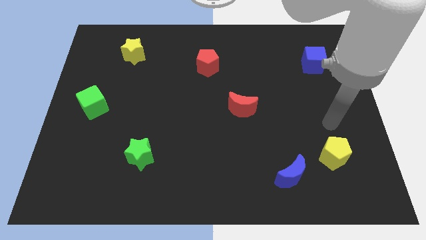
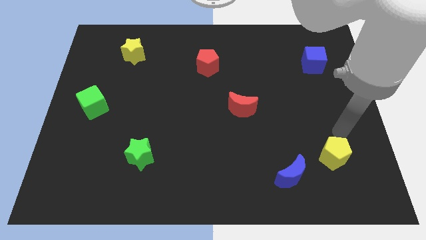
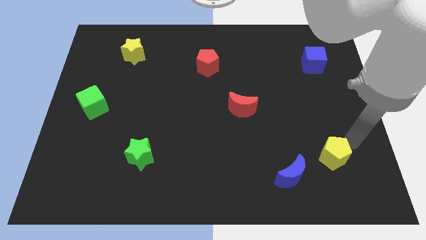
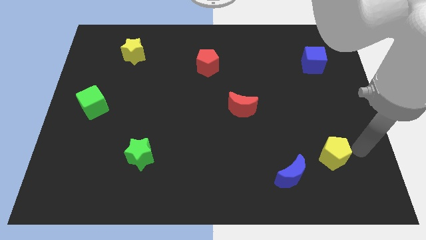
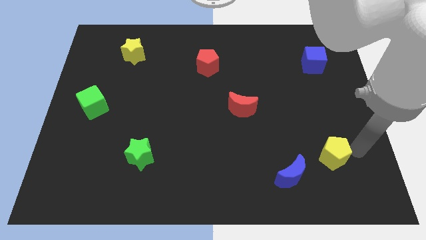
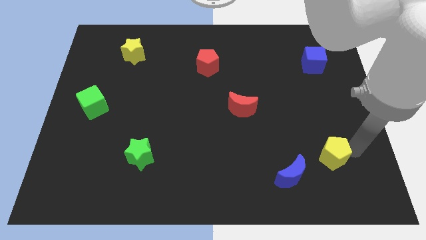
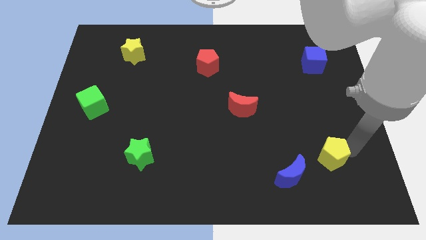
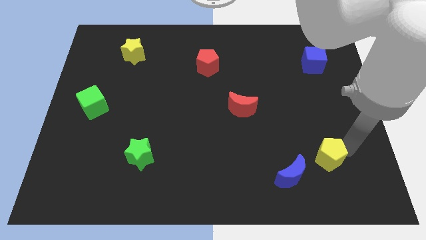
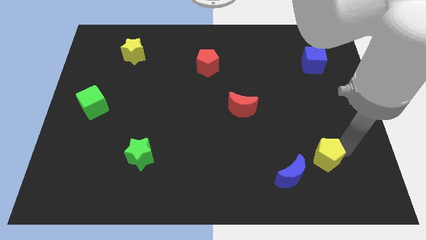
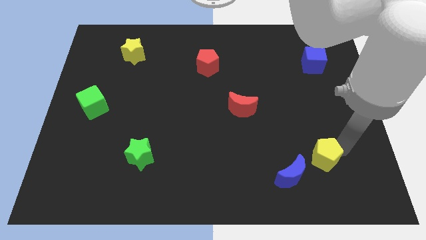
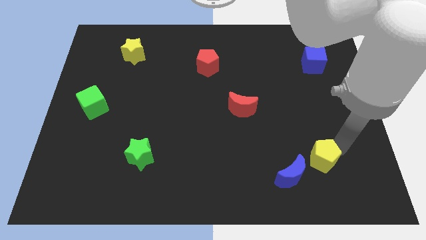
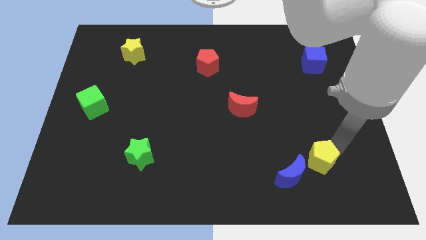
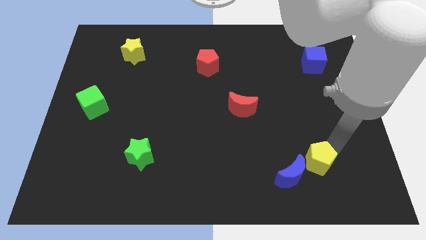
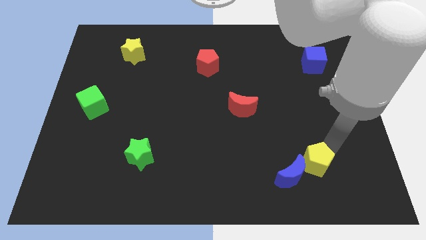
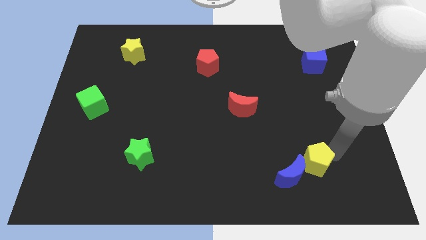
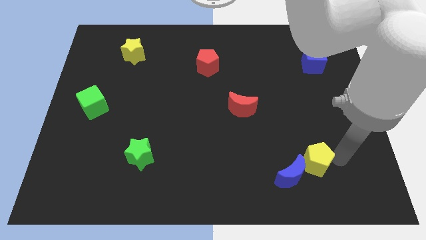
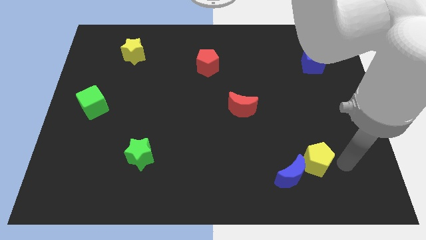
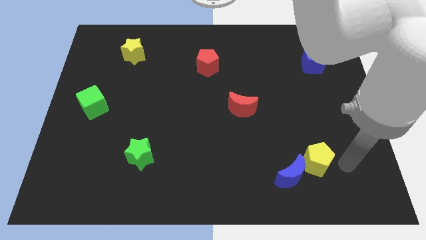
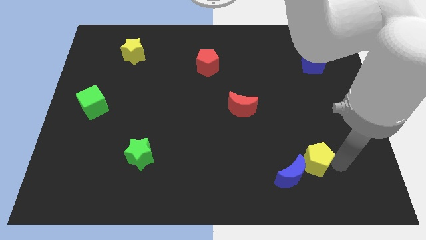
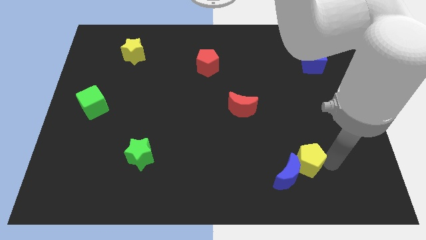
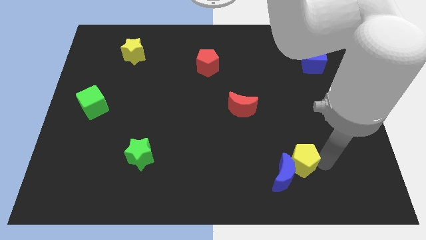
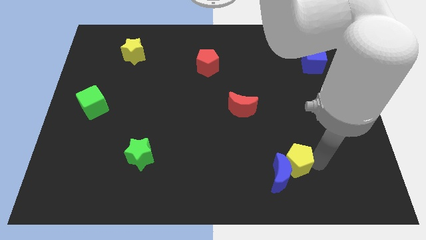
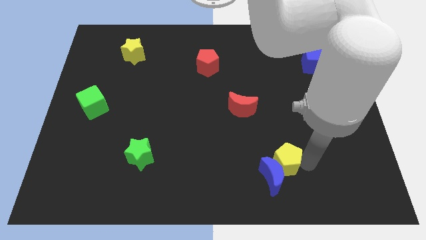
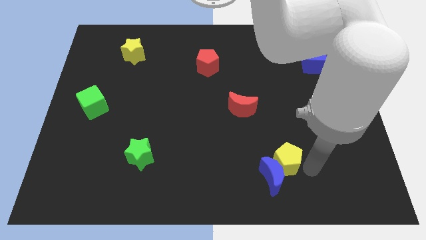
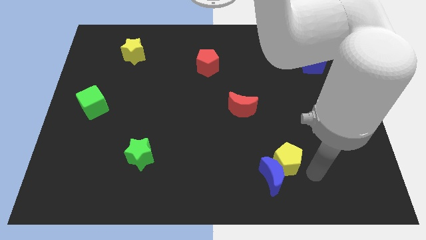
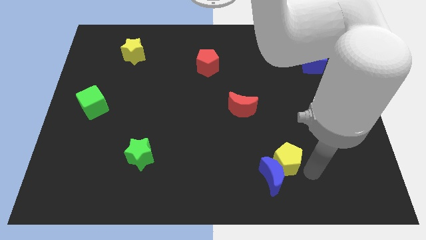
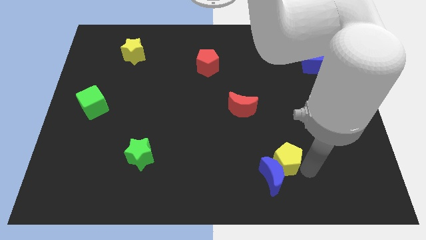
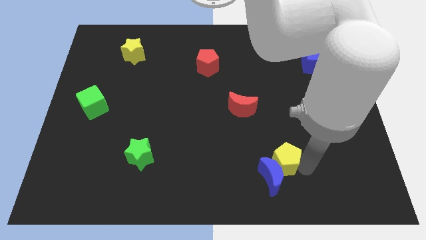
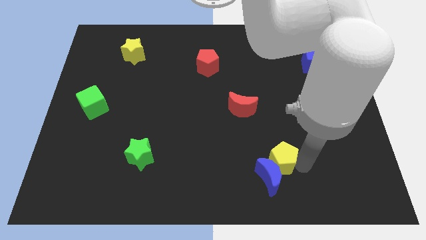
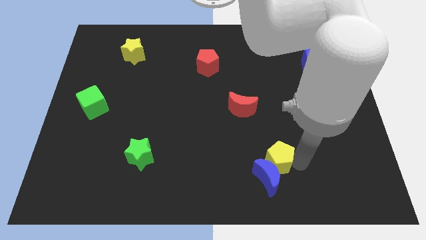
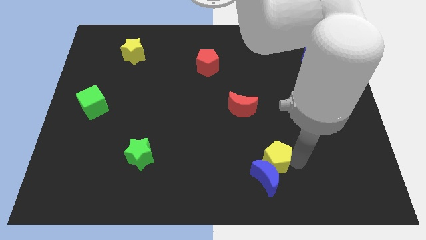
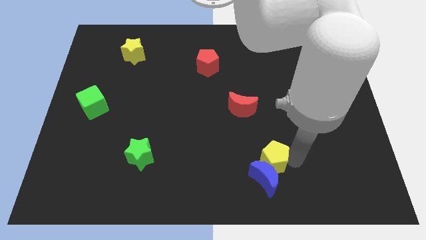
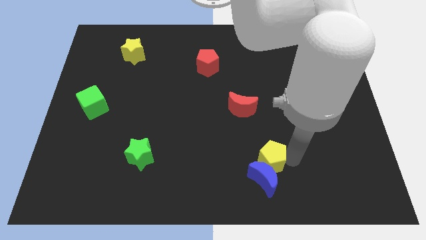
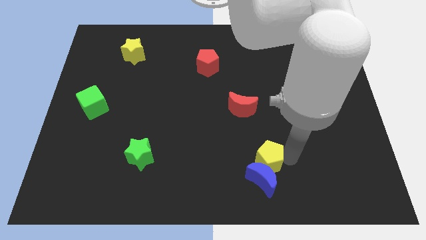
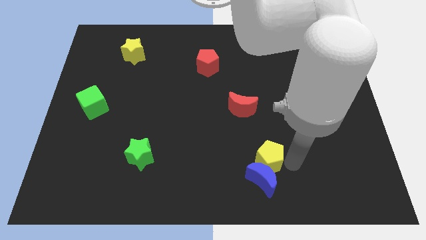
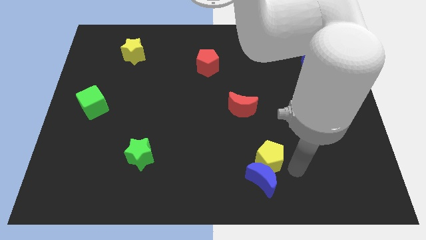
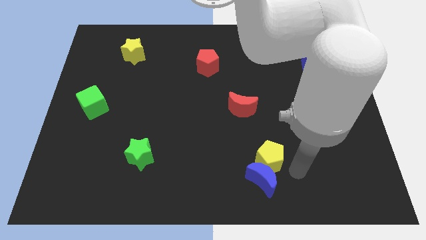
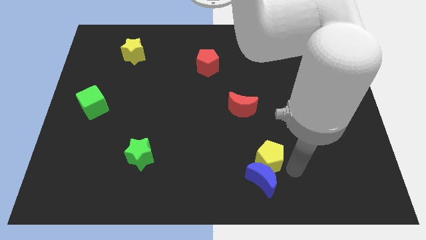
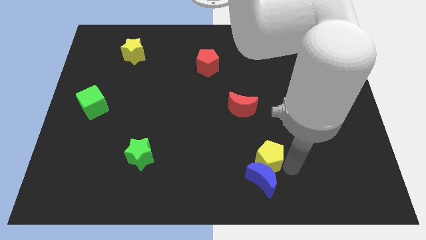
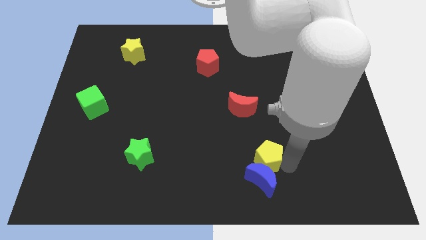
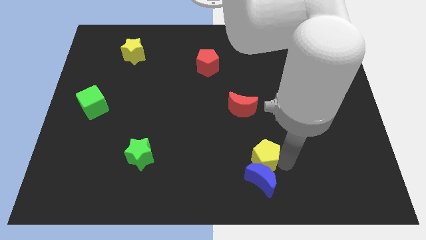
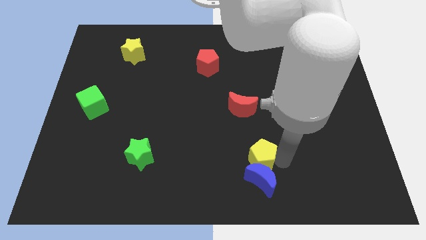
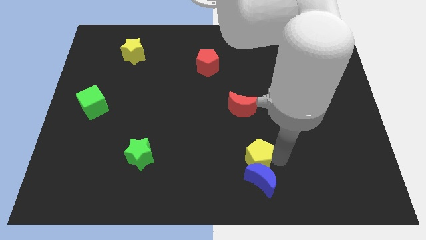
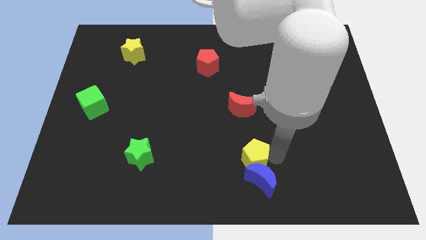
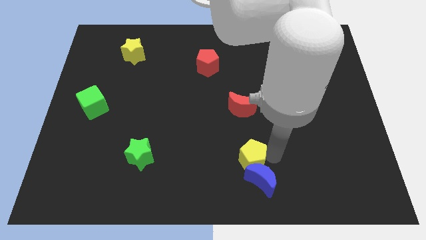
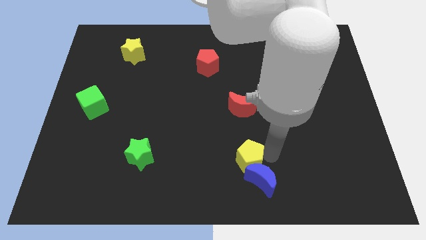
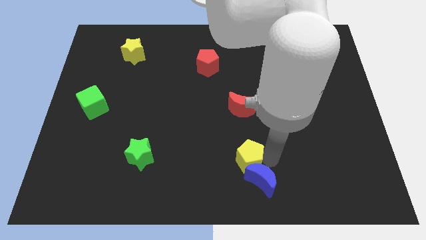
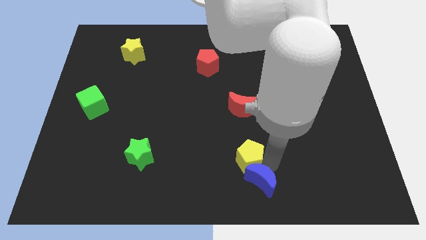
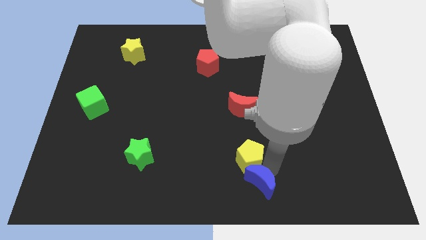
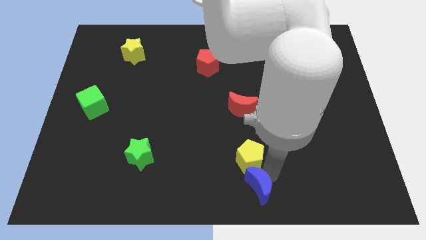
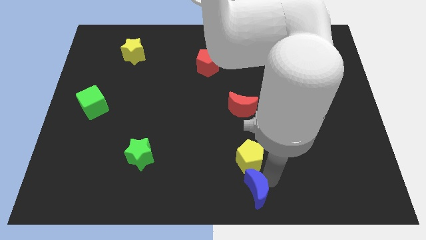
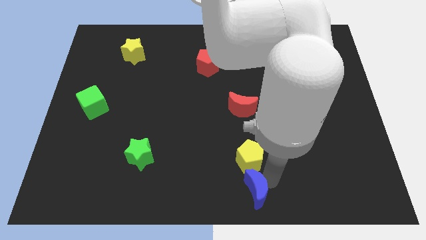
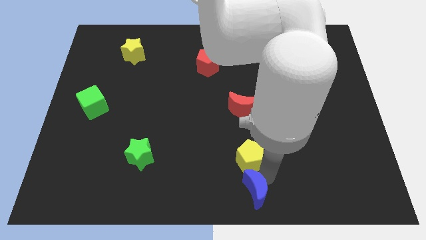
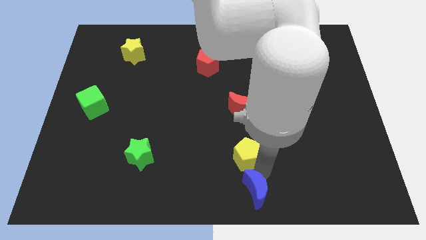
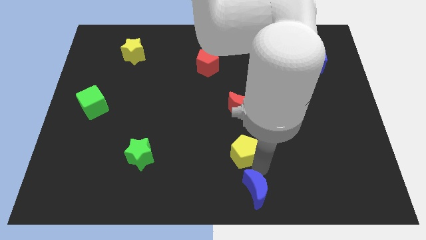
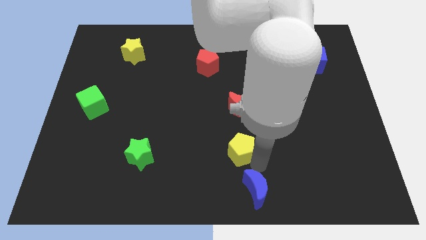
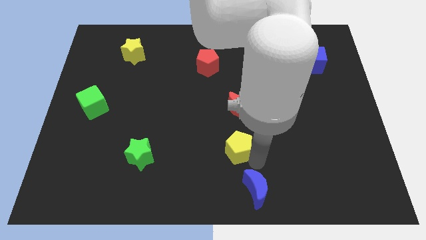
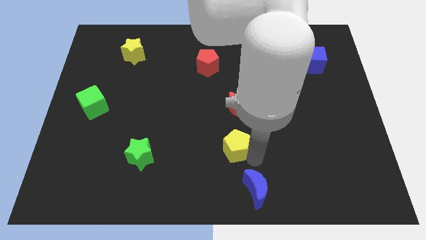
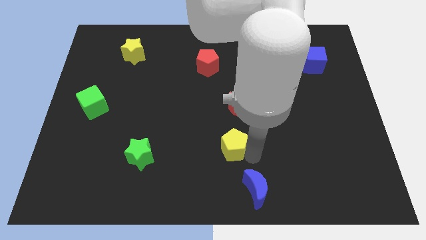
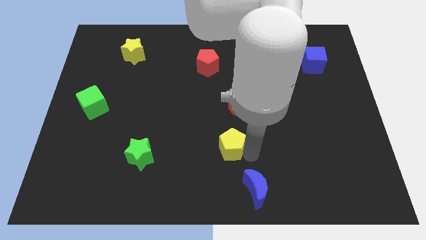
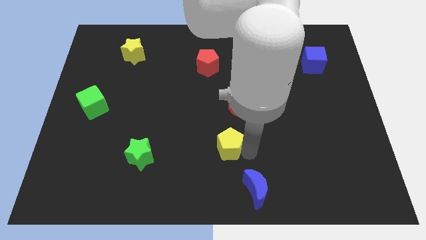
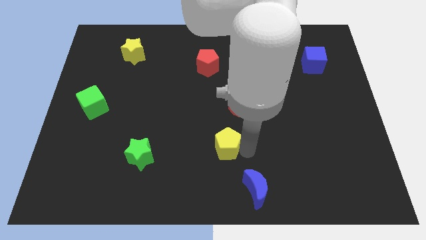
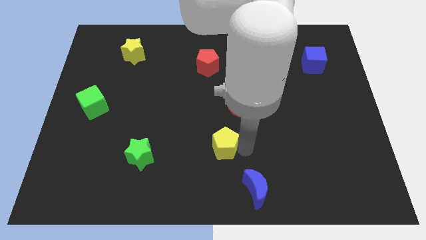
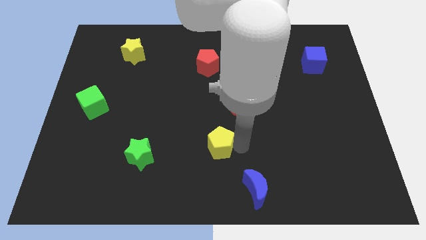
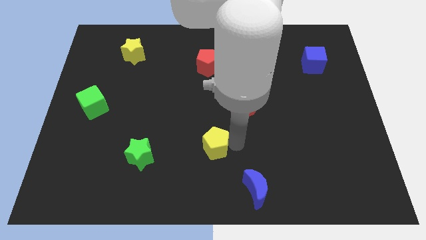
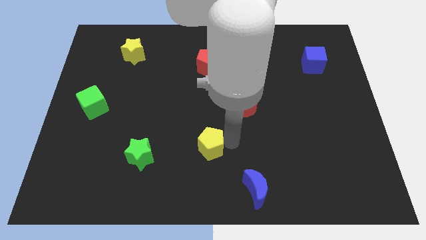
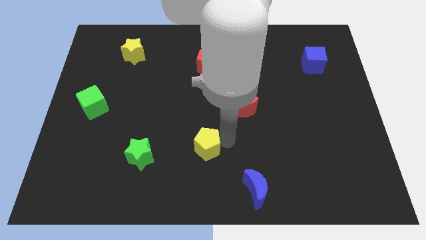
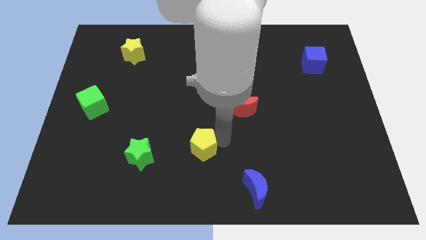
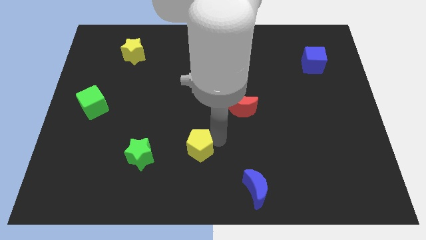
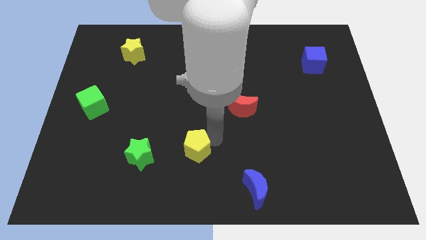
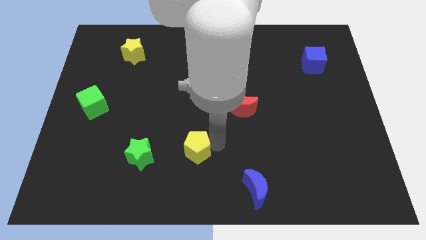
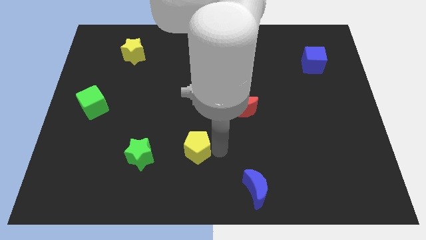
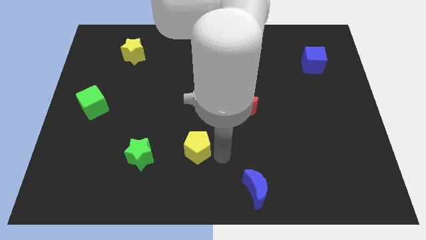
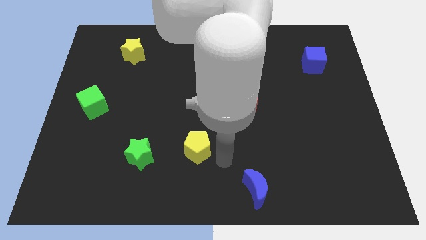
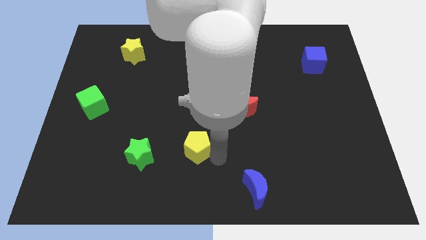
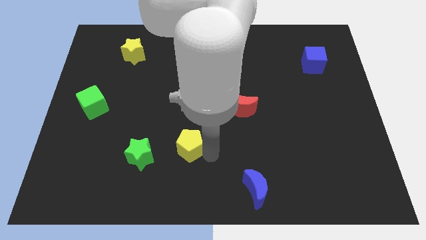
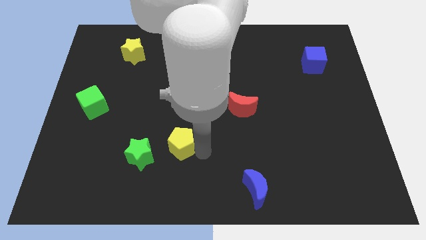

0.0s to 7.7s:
slide the yellow pentagon to the top right of the green star
